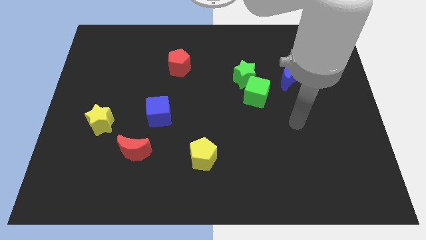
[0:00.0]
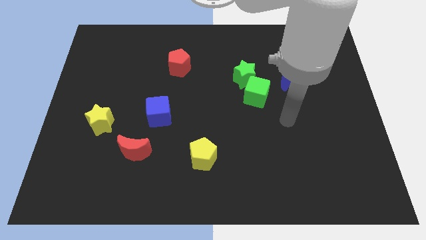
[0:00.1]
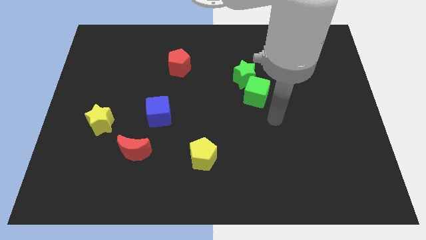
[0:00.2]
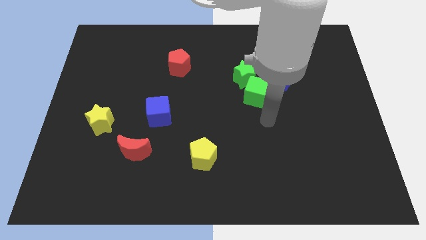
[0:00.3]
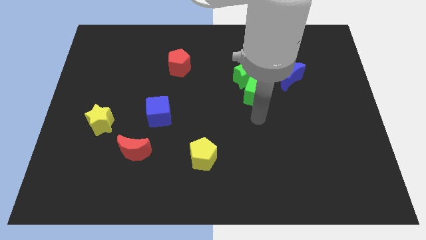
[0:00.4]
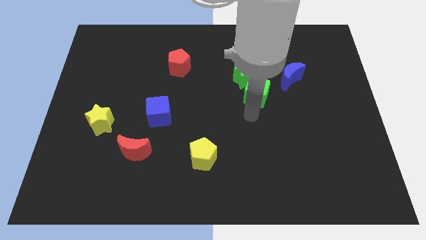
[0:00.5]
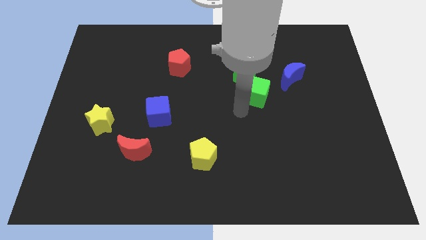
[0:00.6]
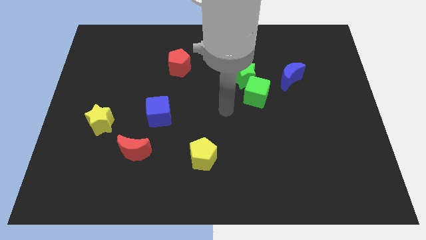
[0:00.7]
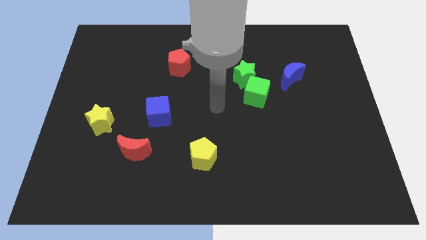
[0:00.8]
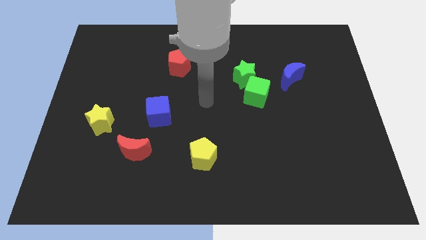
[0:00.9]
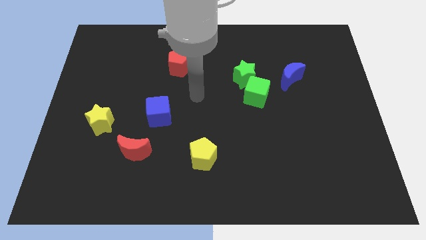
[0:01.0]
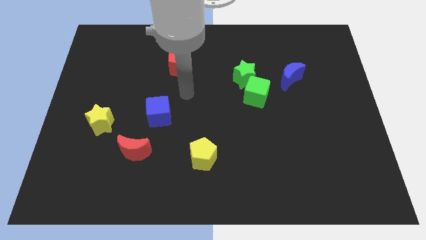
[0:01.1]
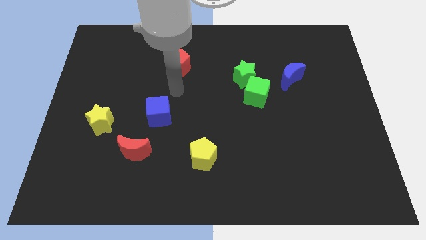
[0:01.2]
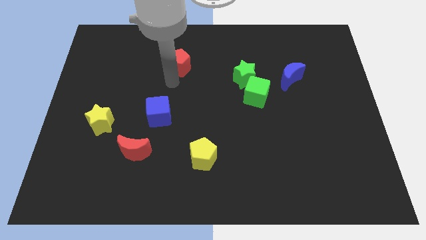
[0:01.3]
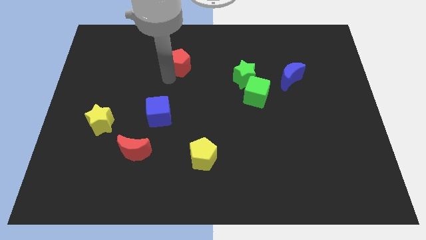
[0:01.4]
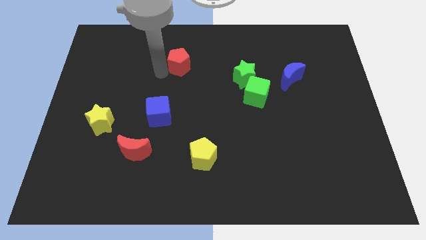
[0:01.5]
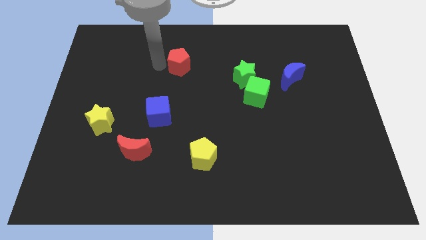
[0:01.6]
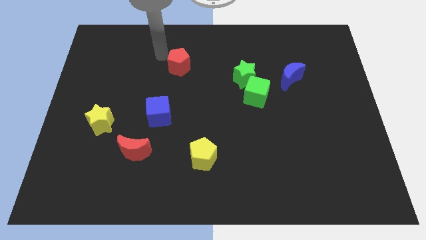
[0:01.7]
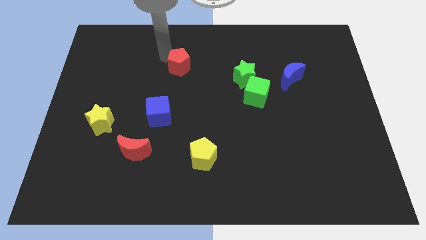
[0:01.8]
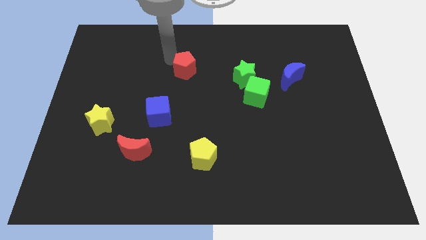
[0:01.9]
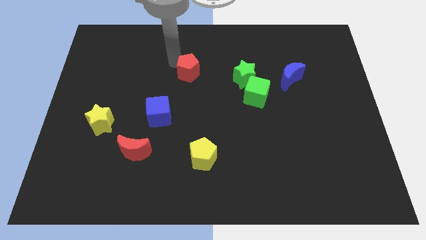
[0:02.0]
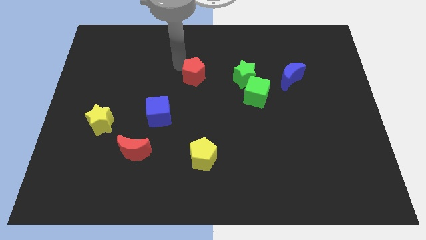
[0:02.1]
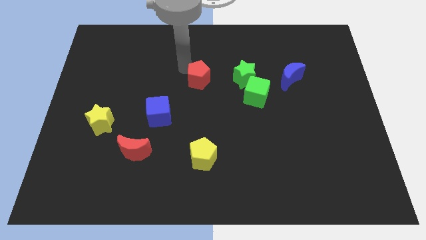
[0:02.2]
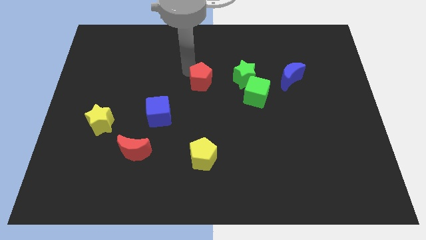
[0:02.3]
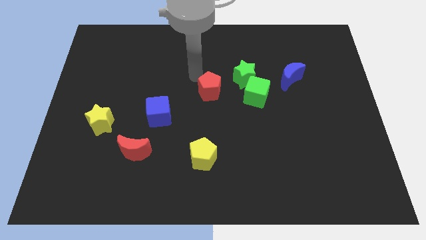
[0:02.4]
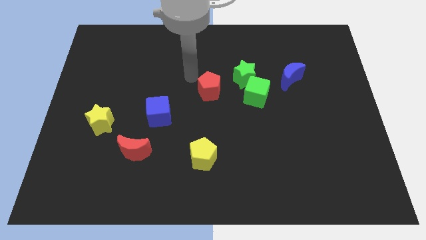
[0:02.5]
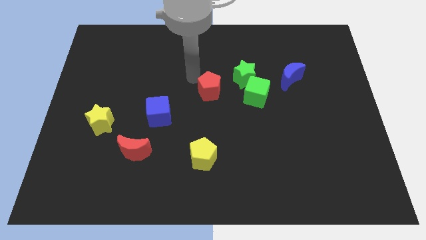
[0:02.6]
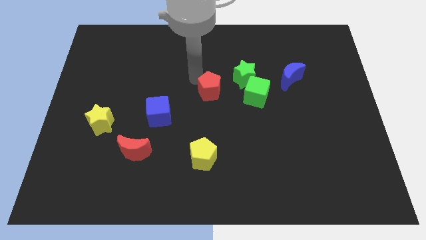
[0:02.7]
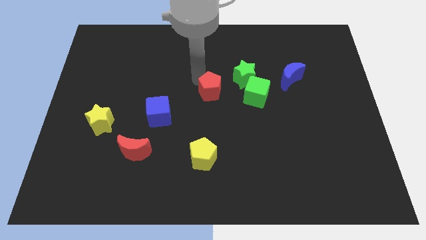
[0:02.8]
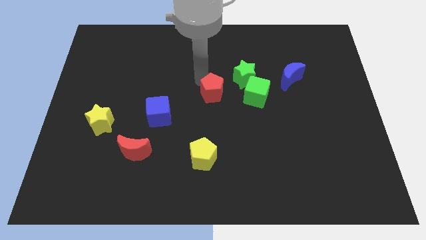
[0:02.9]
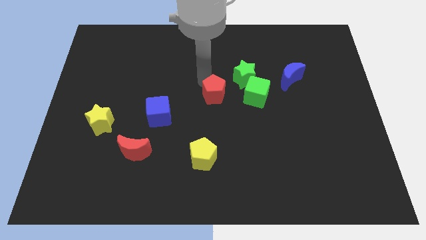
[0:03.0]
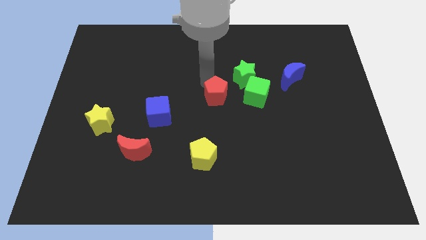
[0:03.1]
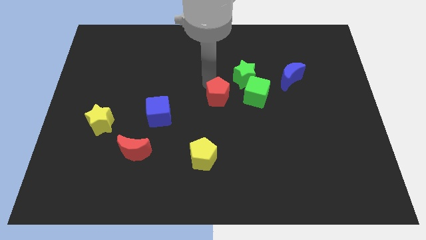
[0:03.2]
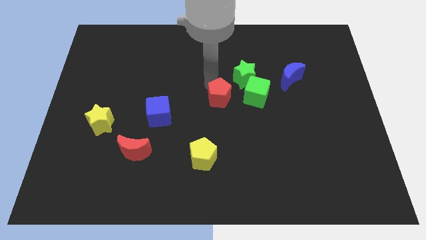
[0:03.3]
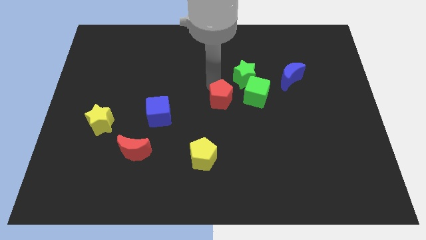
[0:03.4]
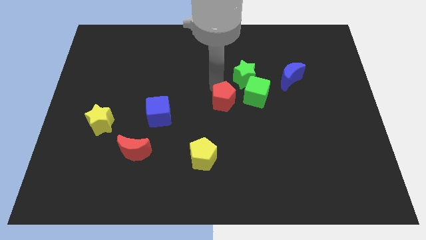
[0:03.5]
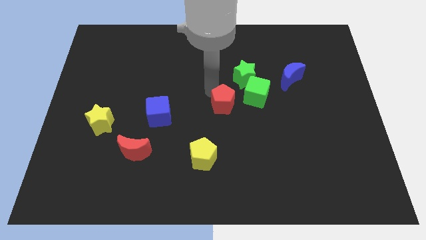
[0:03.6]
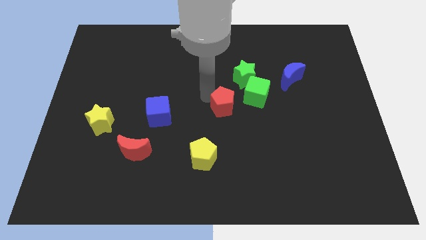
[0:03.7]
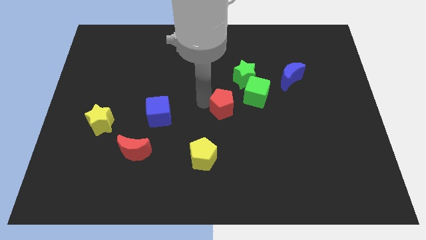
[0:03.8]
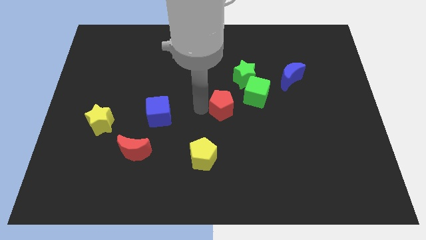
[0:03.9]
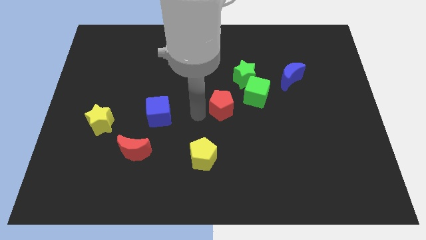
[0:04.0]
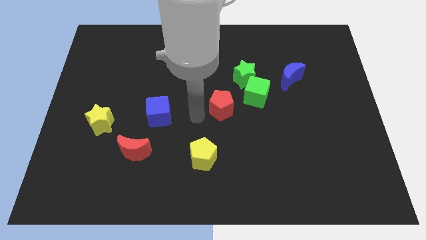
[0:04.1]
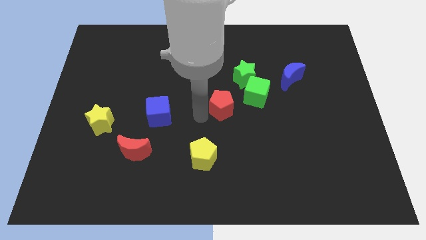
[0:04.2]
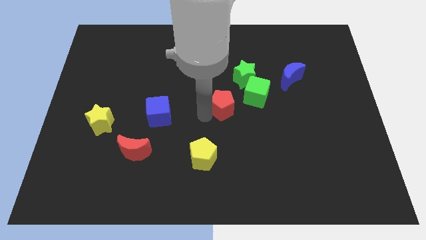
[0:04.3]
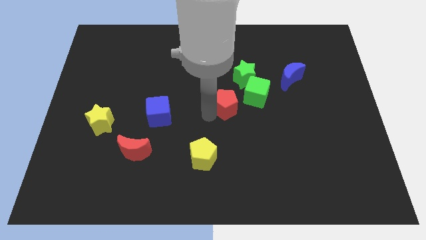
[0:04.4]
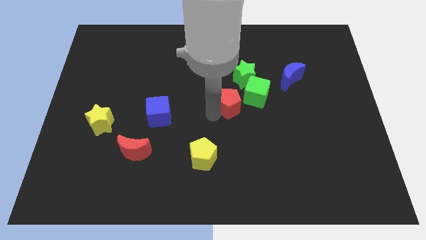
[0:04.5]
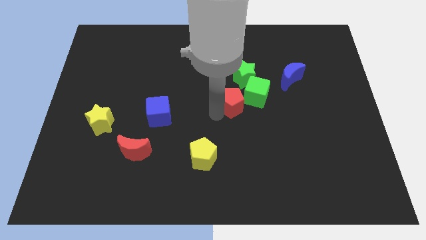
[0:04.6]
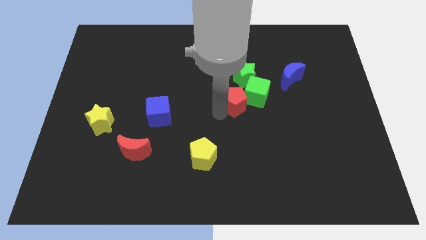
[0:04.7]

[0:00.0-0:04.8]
slide the red pentagon close to the green cube

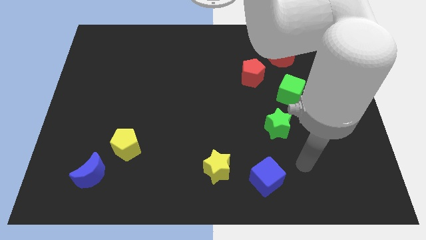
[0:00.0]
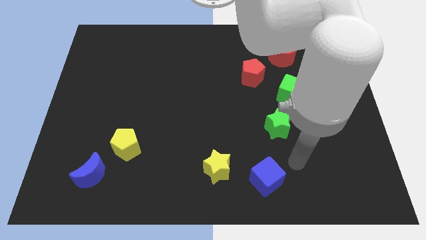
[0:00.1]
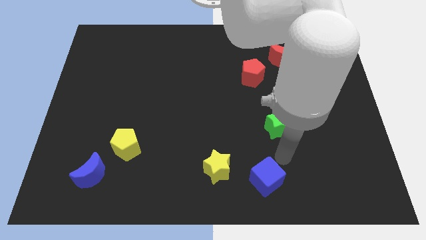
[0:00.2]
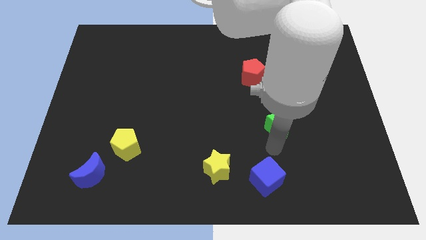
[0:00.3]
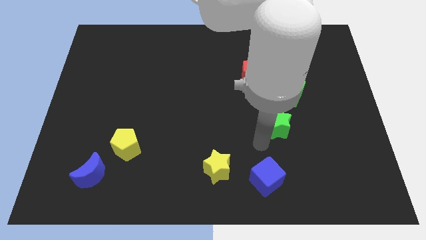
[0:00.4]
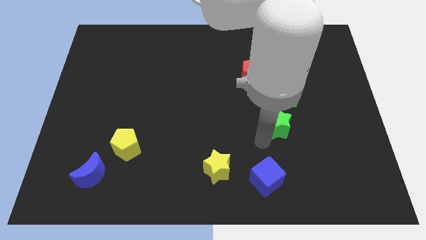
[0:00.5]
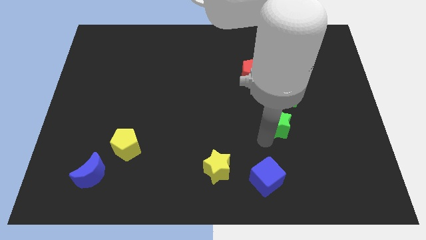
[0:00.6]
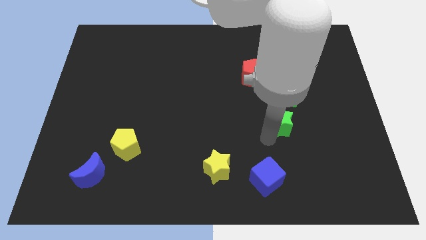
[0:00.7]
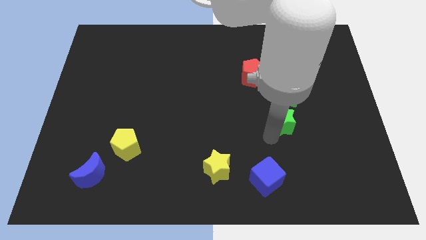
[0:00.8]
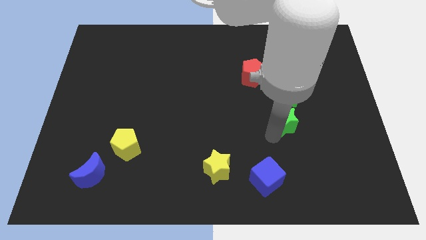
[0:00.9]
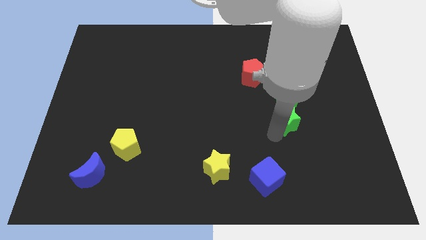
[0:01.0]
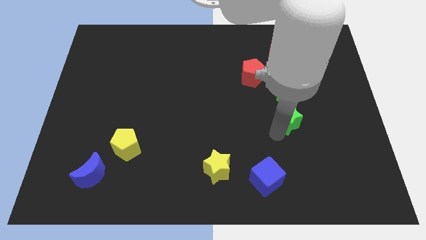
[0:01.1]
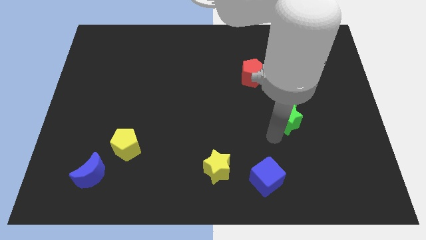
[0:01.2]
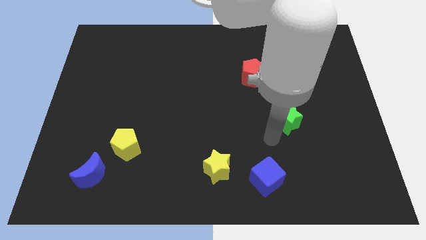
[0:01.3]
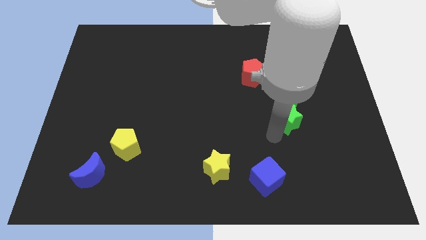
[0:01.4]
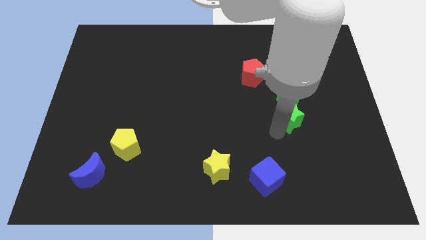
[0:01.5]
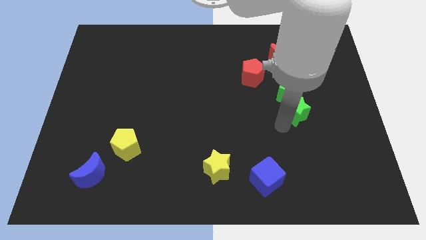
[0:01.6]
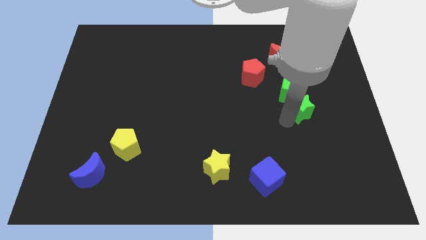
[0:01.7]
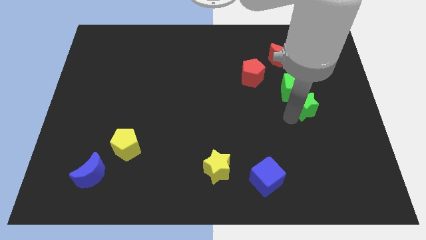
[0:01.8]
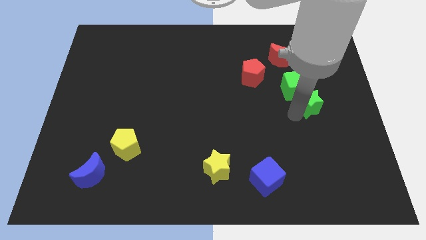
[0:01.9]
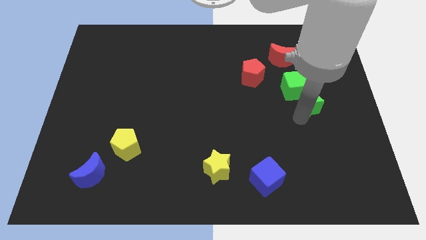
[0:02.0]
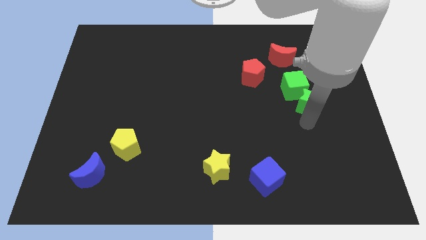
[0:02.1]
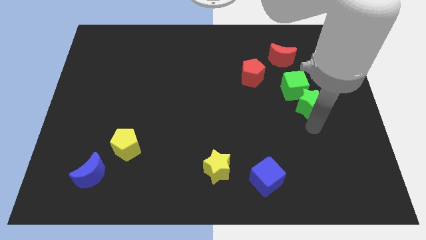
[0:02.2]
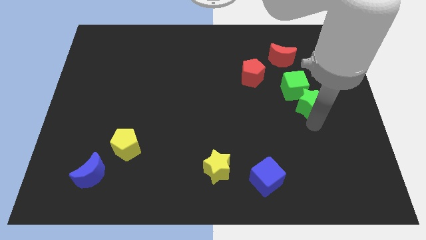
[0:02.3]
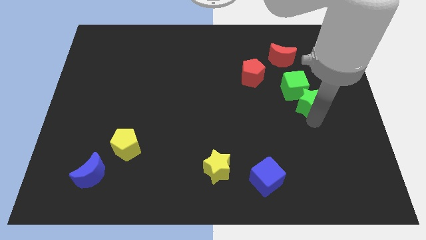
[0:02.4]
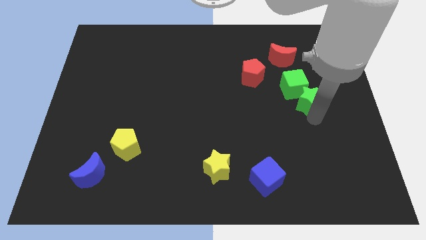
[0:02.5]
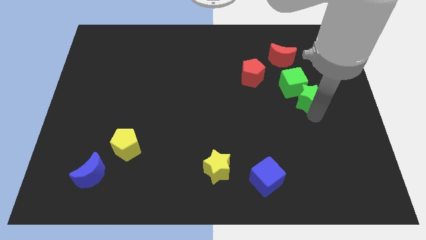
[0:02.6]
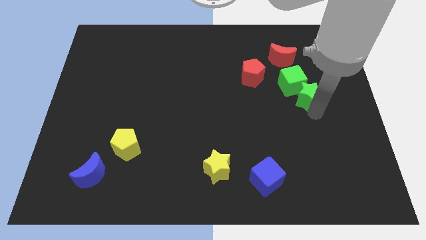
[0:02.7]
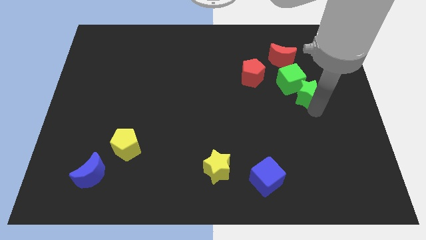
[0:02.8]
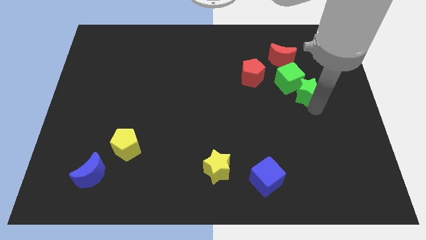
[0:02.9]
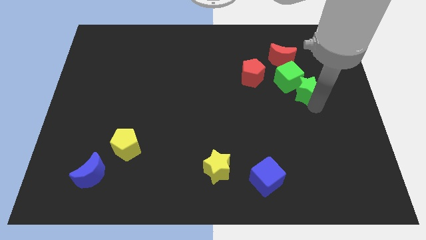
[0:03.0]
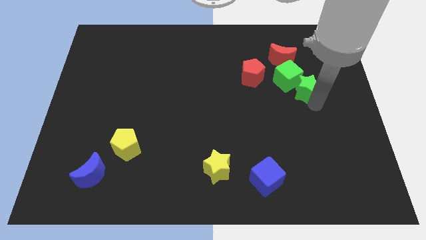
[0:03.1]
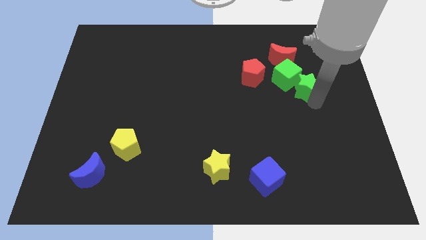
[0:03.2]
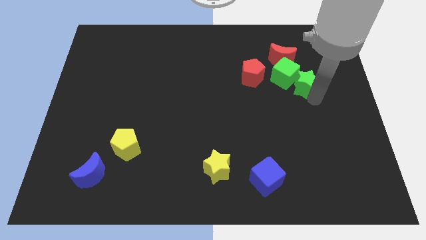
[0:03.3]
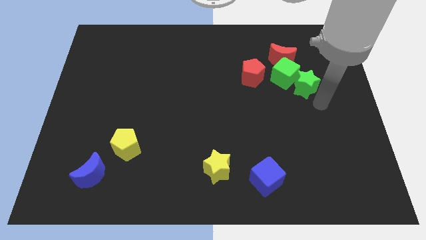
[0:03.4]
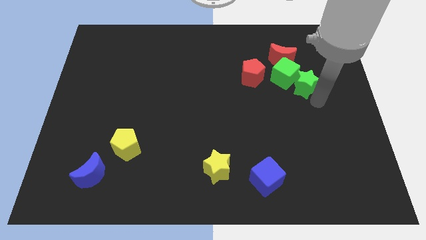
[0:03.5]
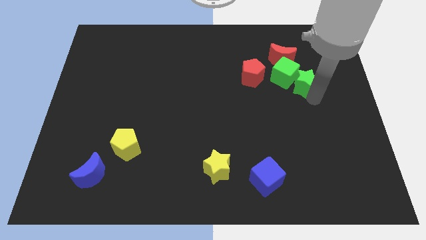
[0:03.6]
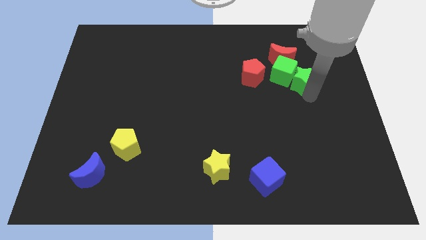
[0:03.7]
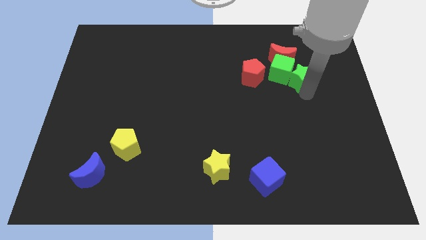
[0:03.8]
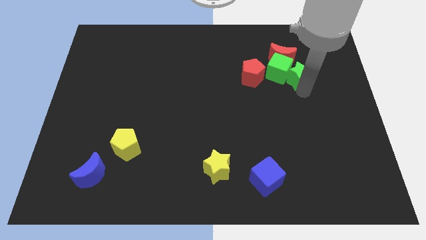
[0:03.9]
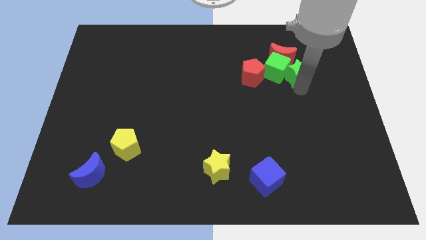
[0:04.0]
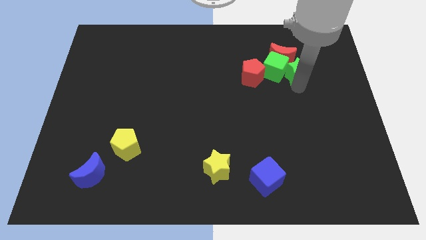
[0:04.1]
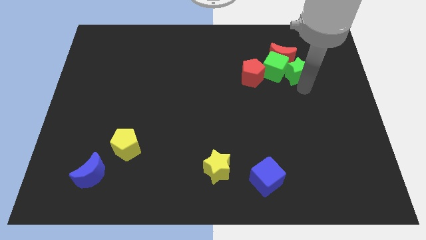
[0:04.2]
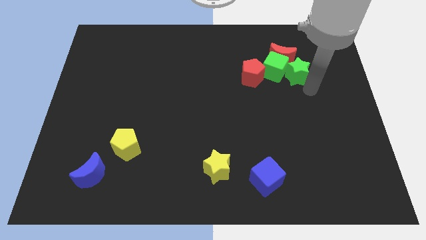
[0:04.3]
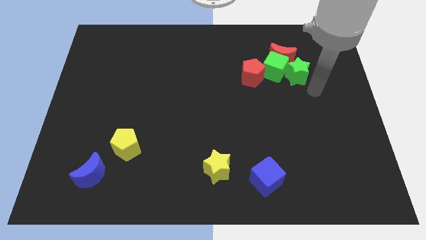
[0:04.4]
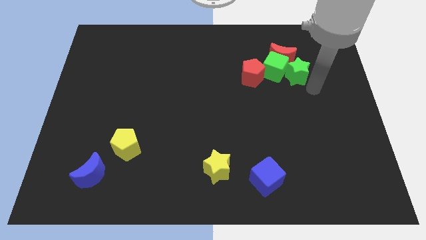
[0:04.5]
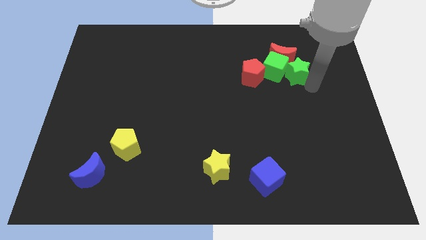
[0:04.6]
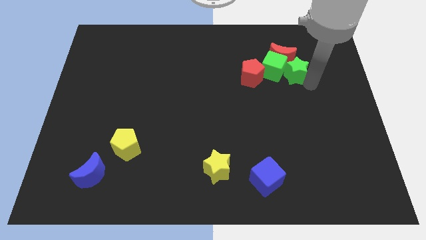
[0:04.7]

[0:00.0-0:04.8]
slide the green star next to the red moon
